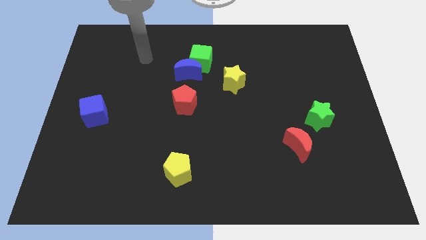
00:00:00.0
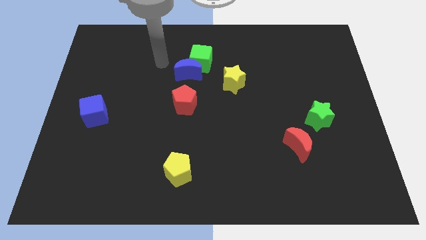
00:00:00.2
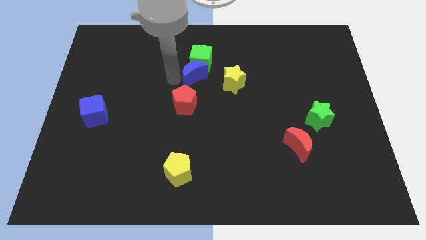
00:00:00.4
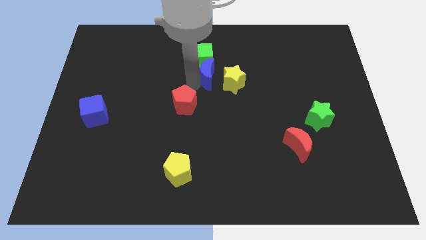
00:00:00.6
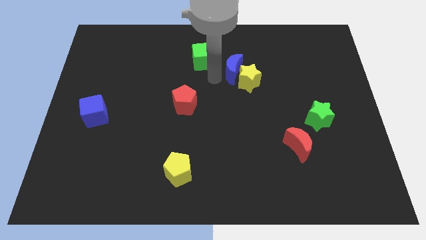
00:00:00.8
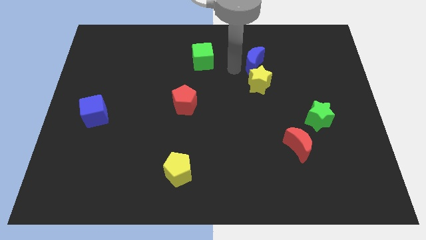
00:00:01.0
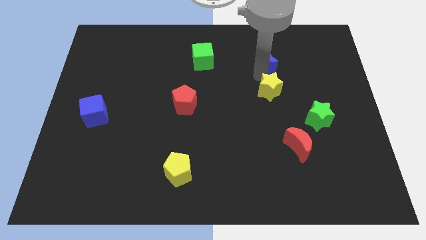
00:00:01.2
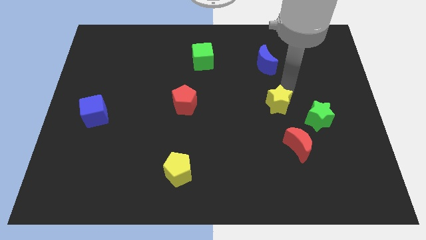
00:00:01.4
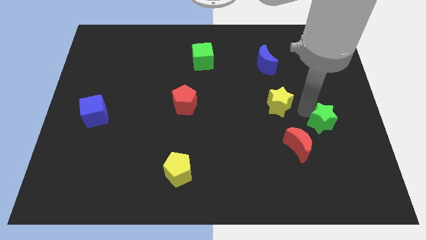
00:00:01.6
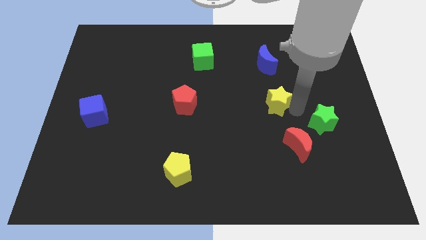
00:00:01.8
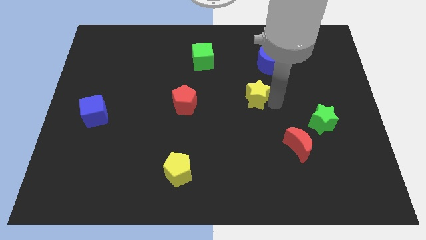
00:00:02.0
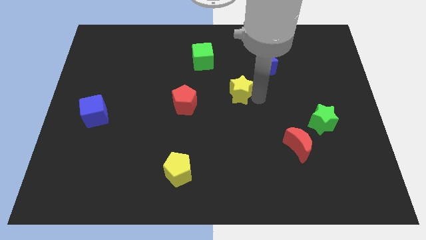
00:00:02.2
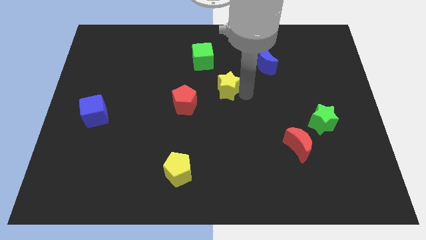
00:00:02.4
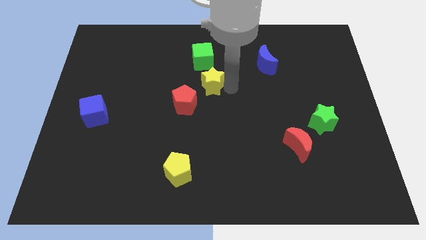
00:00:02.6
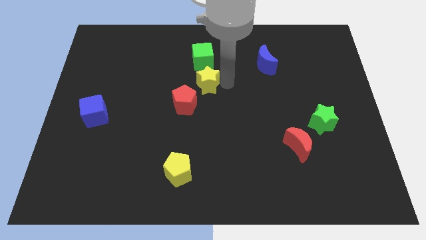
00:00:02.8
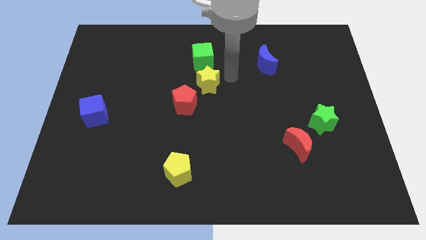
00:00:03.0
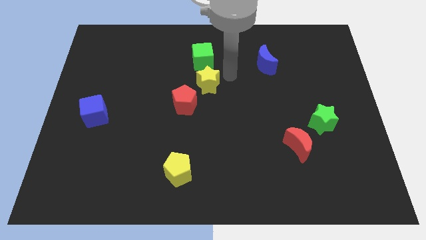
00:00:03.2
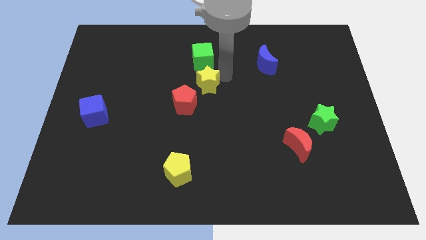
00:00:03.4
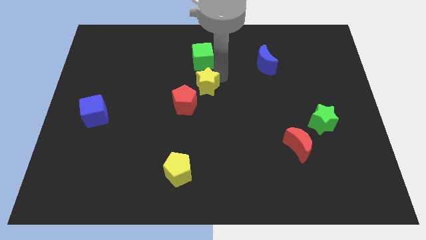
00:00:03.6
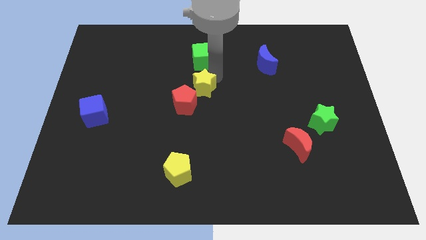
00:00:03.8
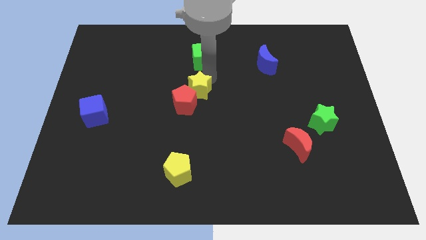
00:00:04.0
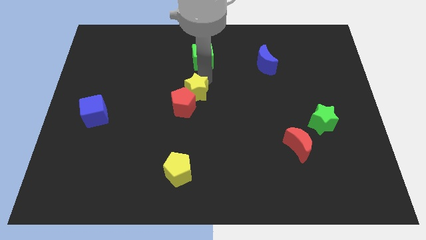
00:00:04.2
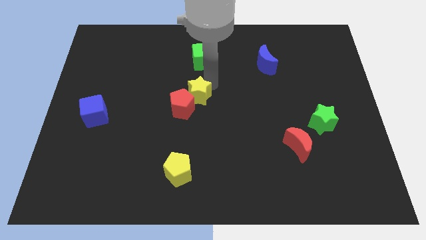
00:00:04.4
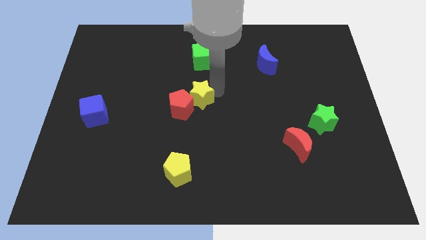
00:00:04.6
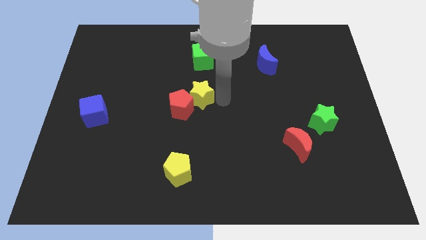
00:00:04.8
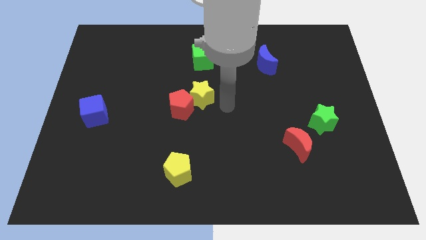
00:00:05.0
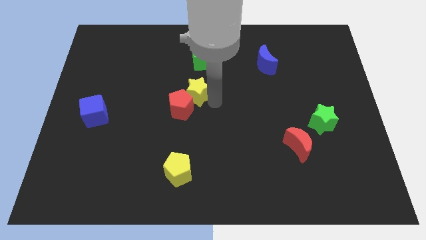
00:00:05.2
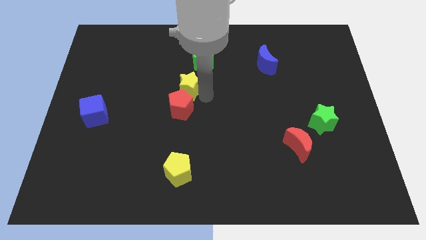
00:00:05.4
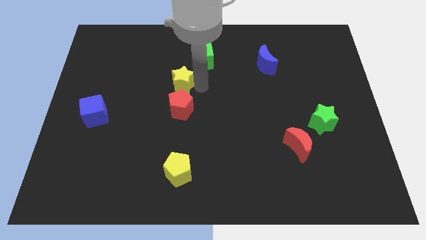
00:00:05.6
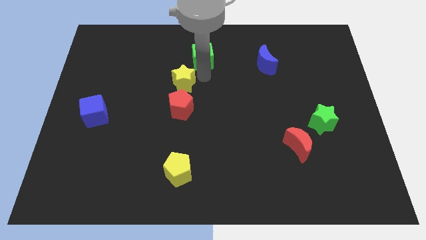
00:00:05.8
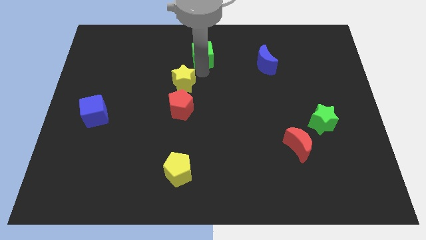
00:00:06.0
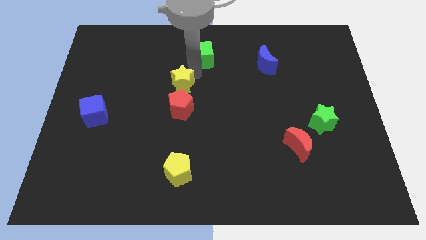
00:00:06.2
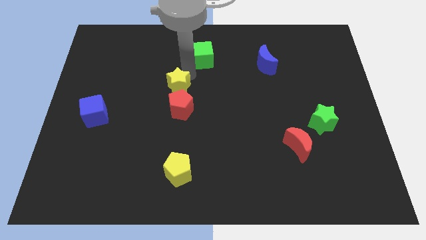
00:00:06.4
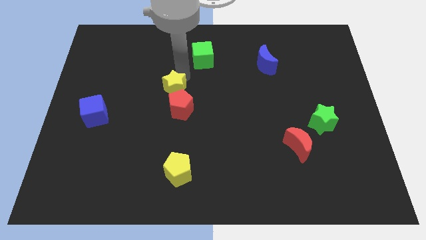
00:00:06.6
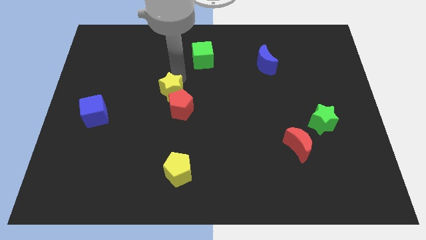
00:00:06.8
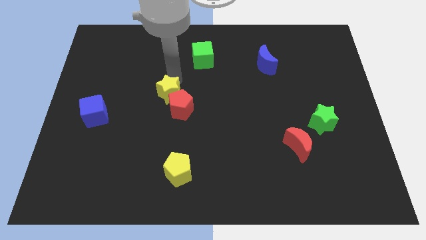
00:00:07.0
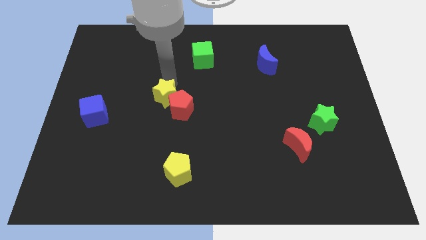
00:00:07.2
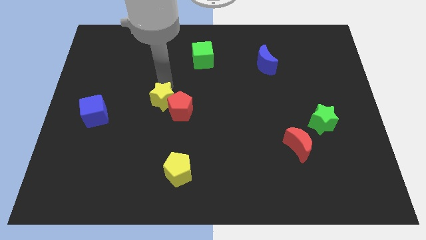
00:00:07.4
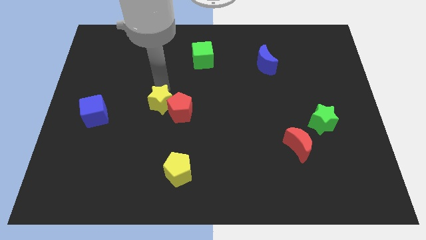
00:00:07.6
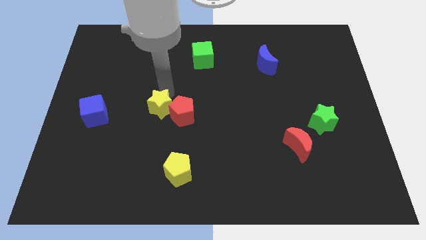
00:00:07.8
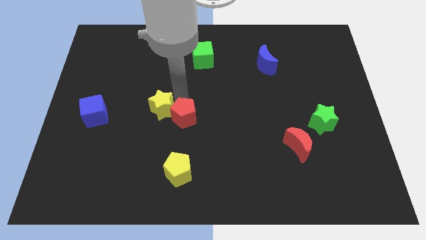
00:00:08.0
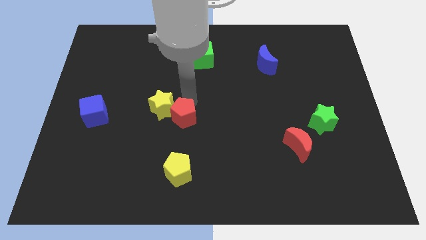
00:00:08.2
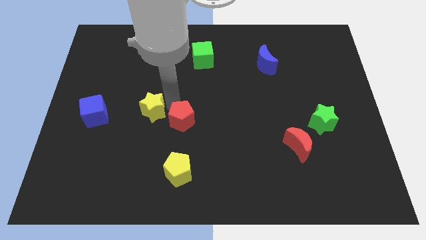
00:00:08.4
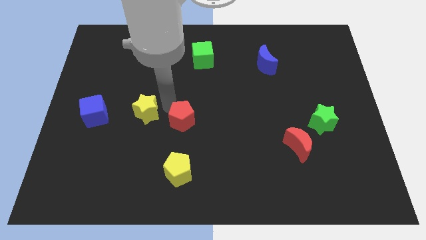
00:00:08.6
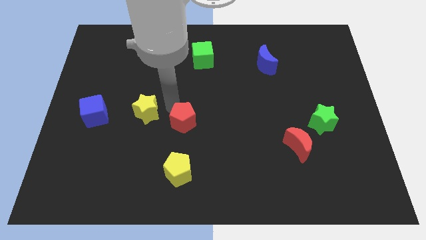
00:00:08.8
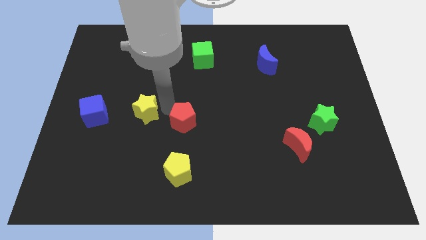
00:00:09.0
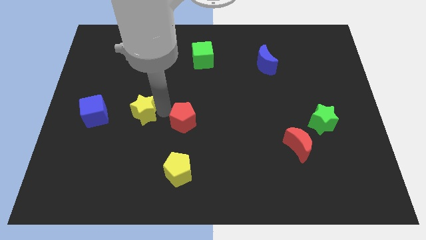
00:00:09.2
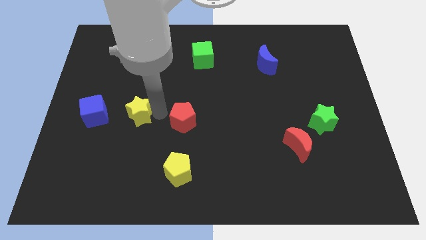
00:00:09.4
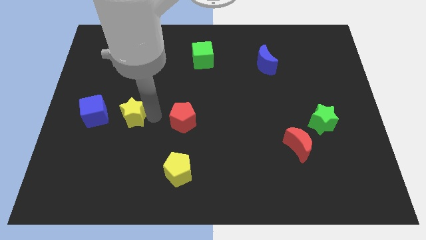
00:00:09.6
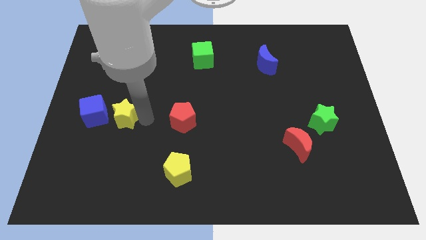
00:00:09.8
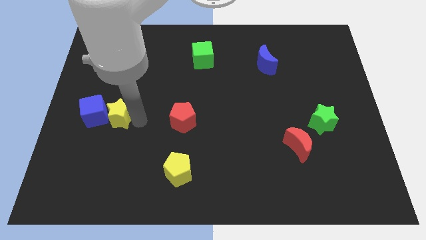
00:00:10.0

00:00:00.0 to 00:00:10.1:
slide the yellow star towards the blue cube

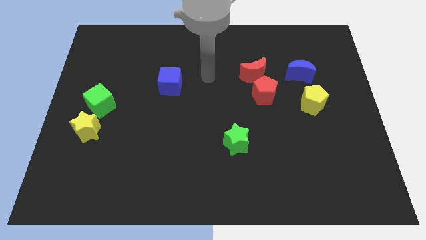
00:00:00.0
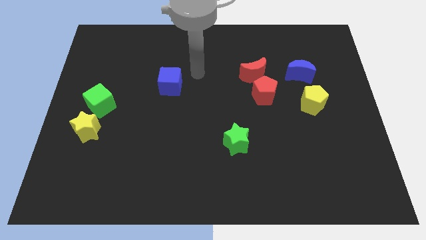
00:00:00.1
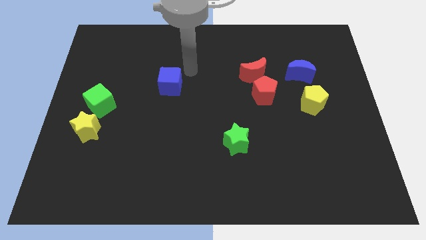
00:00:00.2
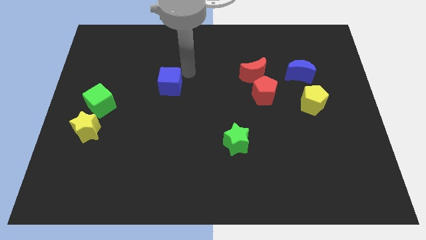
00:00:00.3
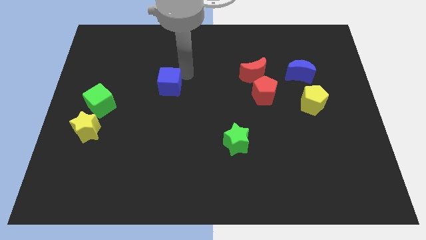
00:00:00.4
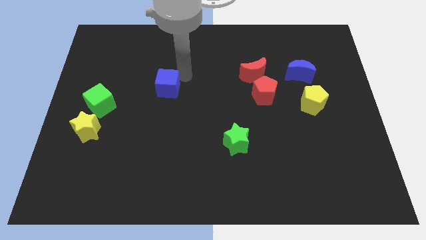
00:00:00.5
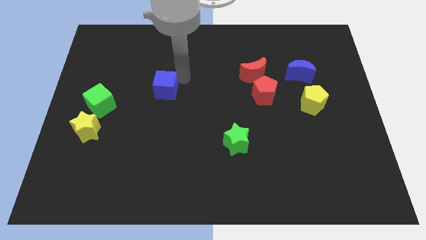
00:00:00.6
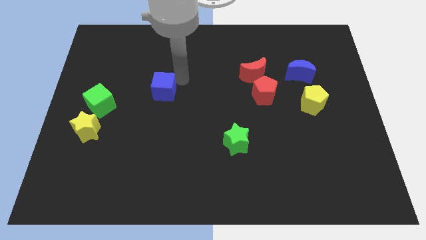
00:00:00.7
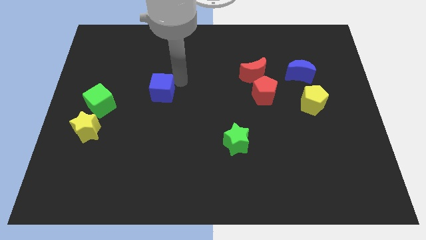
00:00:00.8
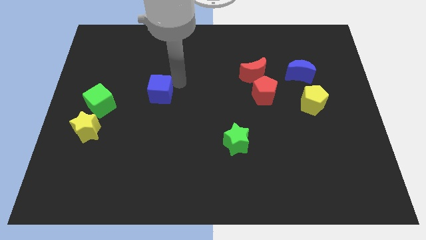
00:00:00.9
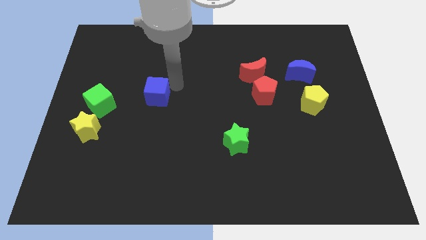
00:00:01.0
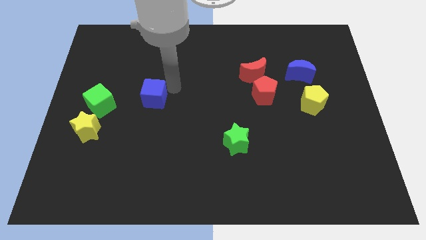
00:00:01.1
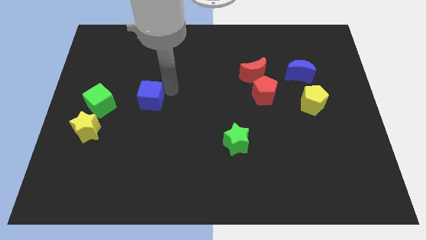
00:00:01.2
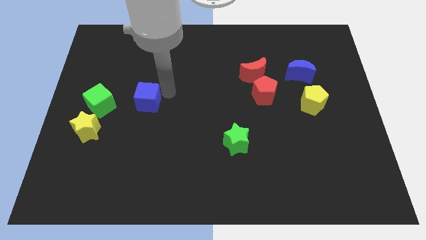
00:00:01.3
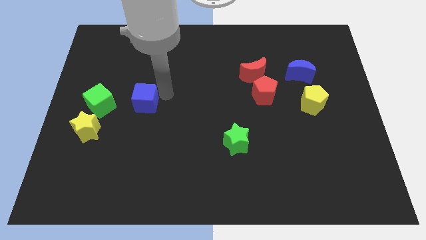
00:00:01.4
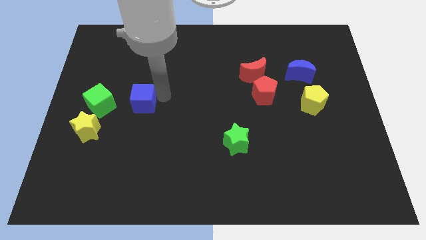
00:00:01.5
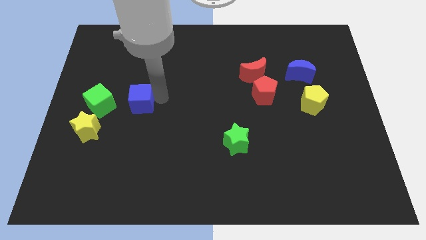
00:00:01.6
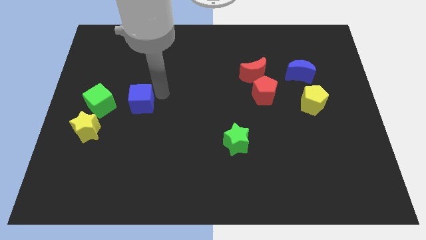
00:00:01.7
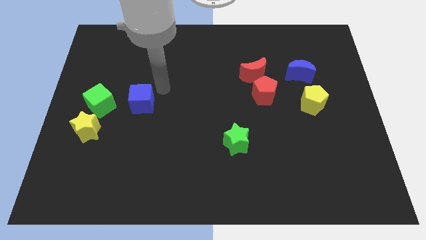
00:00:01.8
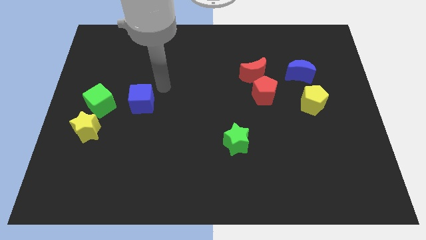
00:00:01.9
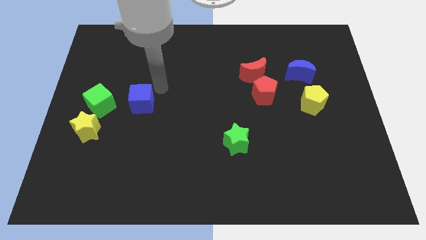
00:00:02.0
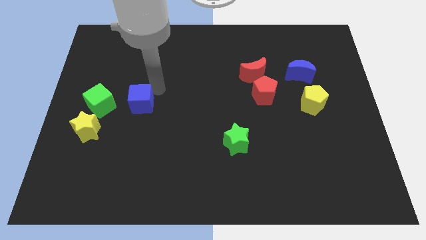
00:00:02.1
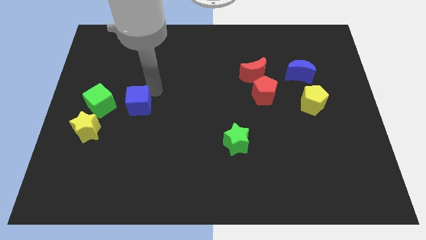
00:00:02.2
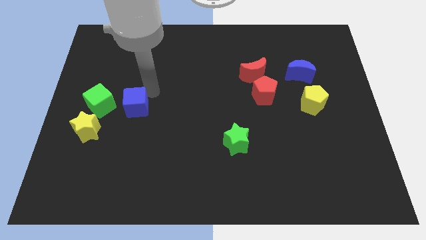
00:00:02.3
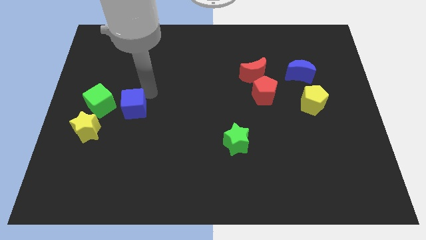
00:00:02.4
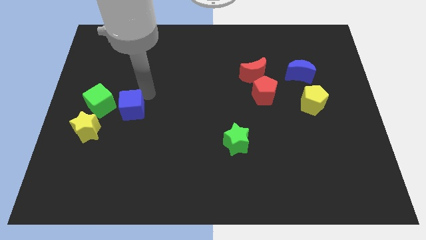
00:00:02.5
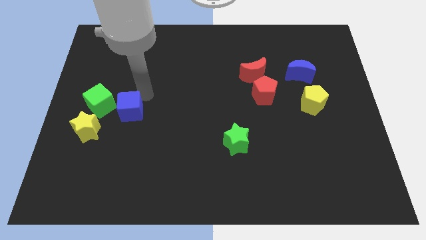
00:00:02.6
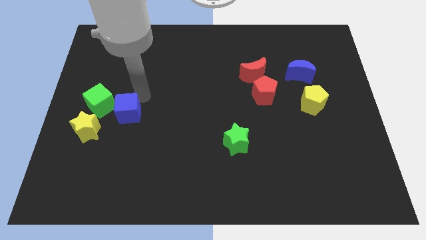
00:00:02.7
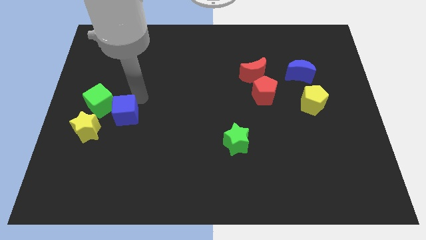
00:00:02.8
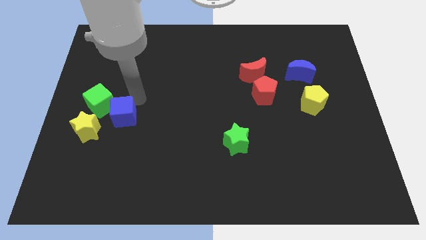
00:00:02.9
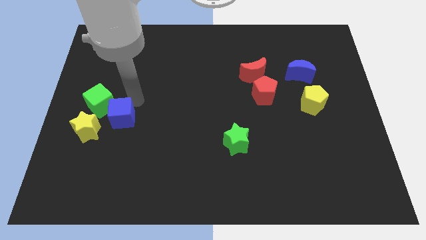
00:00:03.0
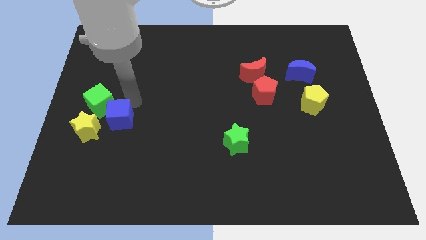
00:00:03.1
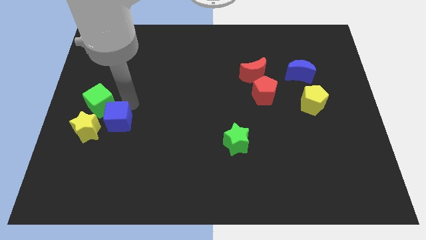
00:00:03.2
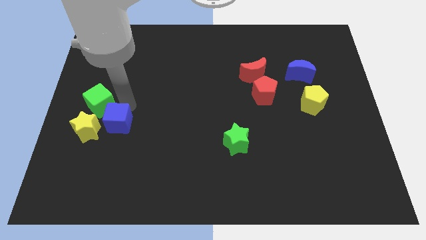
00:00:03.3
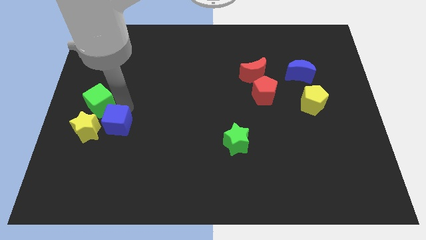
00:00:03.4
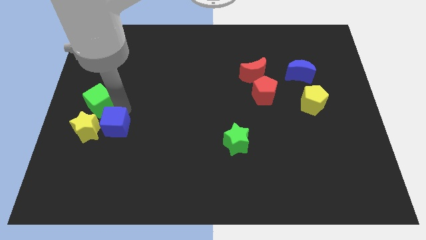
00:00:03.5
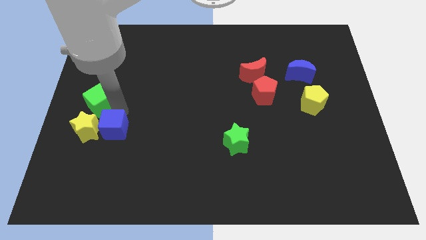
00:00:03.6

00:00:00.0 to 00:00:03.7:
slide the blue cube close to the yellow star
